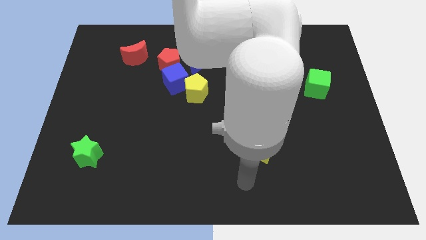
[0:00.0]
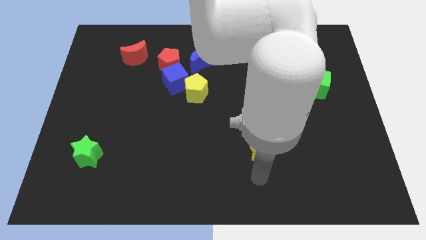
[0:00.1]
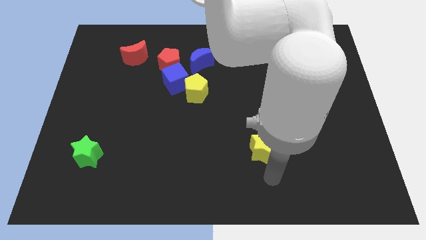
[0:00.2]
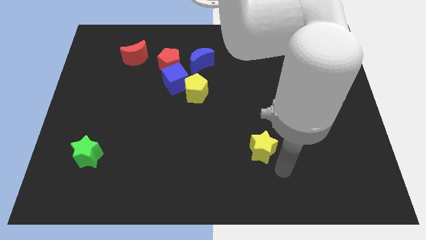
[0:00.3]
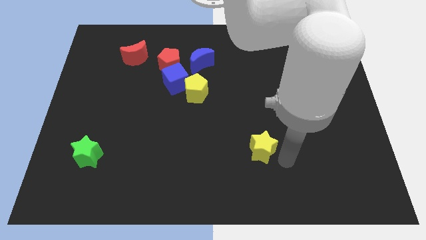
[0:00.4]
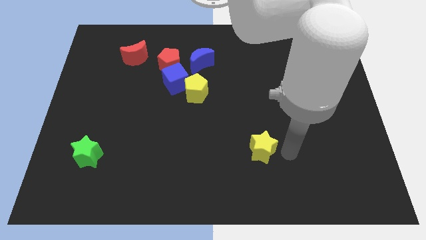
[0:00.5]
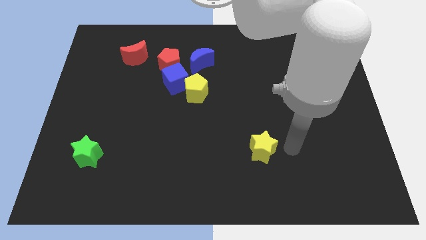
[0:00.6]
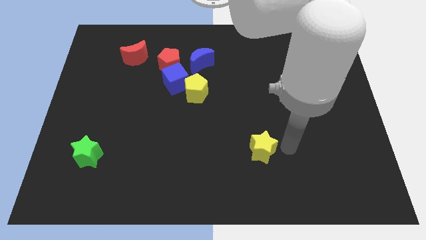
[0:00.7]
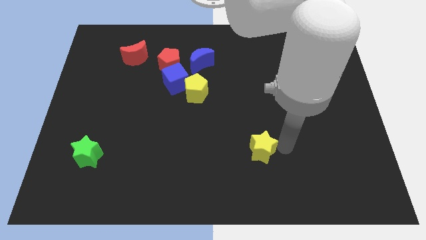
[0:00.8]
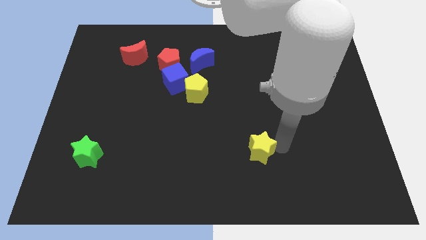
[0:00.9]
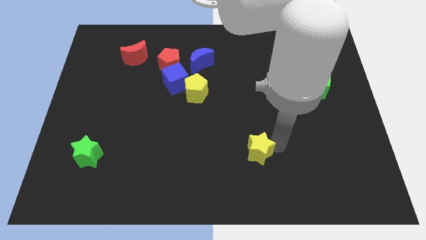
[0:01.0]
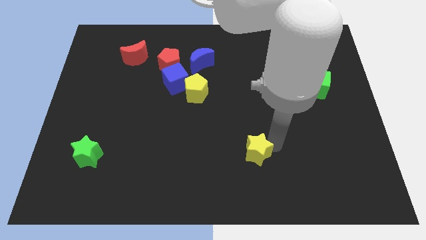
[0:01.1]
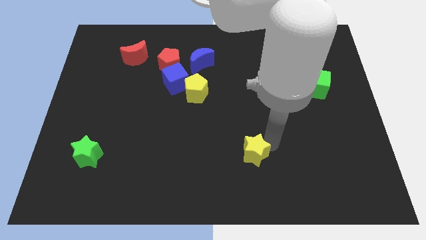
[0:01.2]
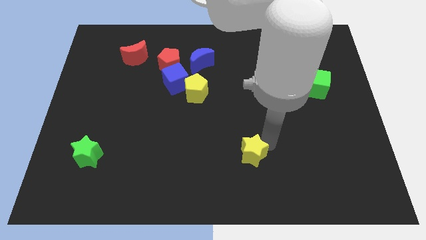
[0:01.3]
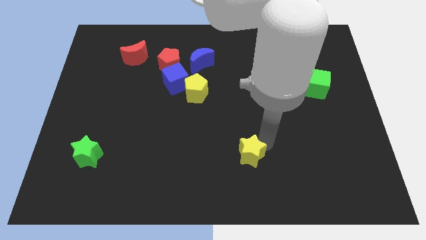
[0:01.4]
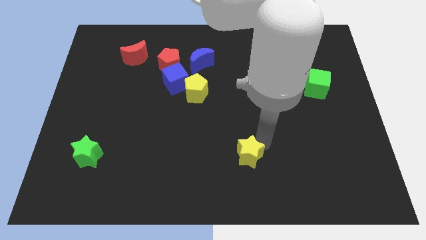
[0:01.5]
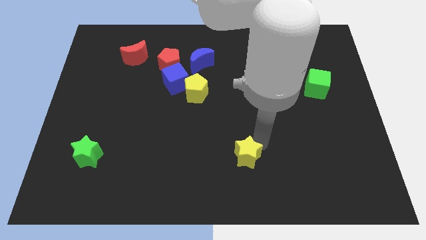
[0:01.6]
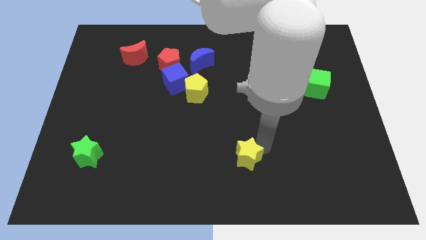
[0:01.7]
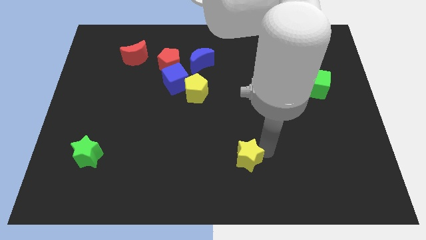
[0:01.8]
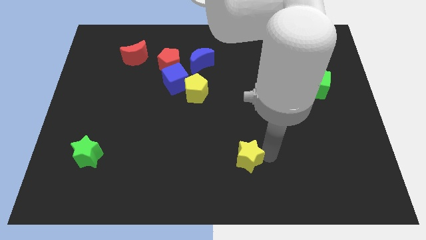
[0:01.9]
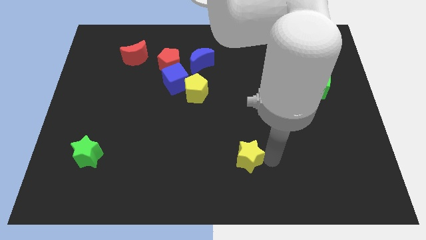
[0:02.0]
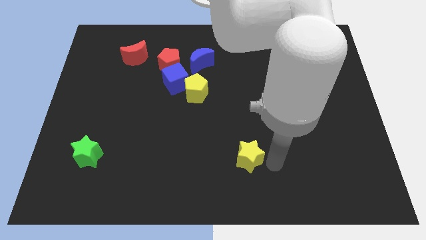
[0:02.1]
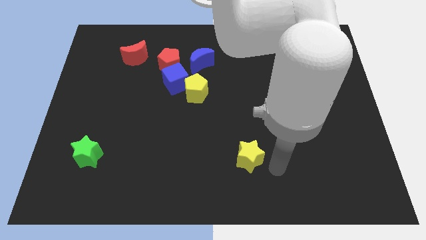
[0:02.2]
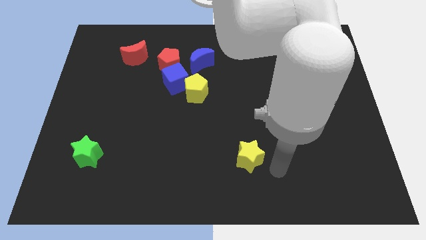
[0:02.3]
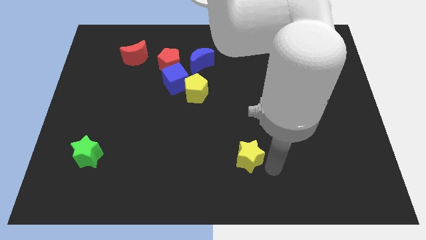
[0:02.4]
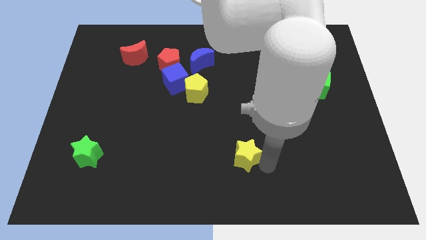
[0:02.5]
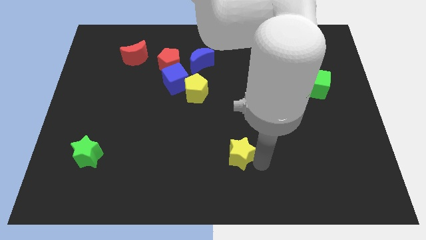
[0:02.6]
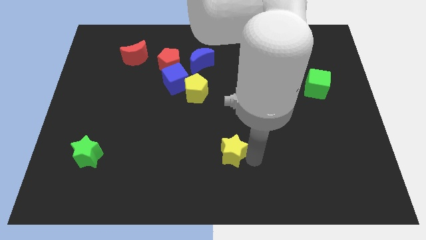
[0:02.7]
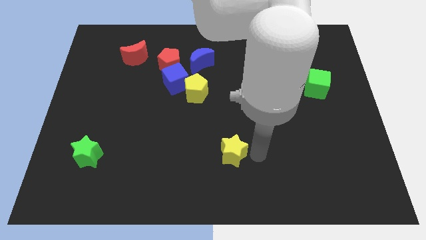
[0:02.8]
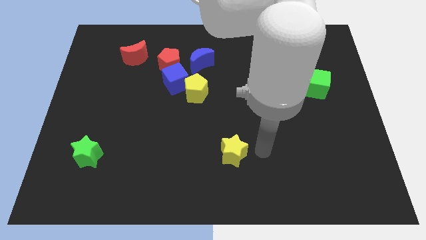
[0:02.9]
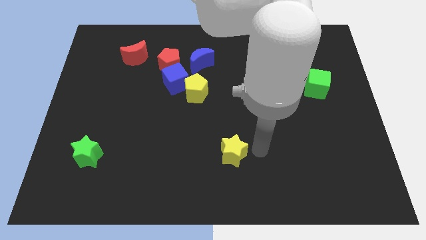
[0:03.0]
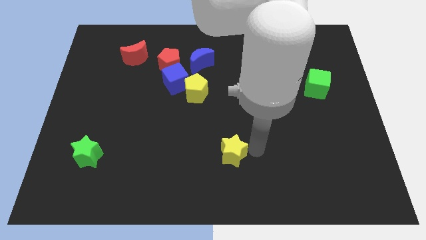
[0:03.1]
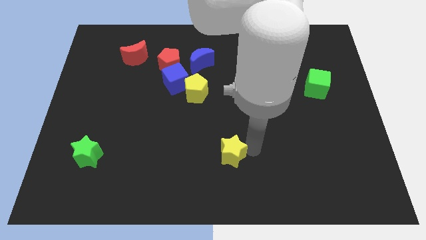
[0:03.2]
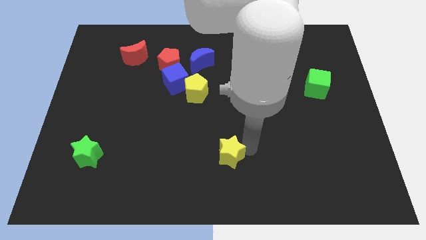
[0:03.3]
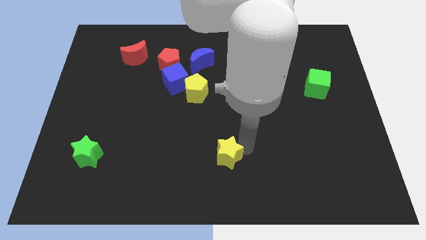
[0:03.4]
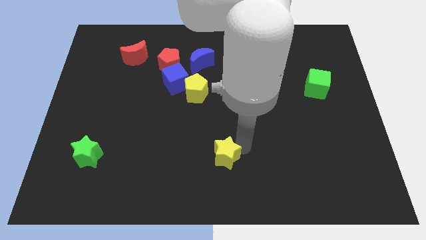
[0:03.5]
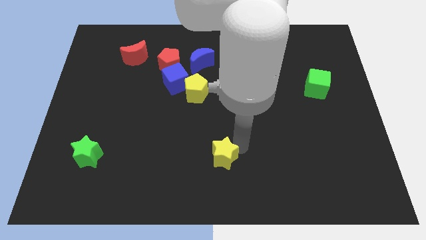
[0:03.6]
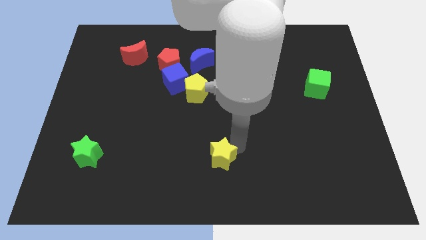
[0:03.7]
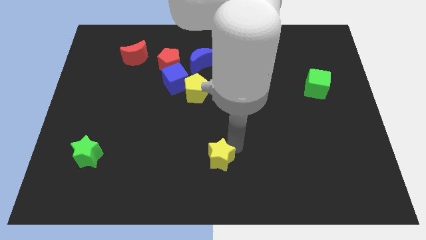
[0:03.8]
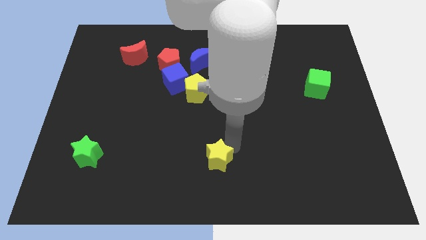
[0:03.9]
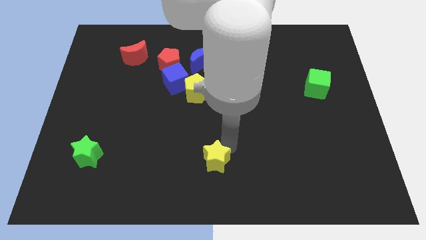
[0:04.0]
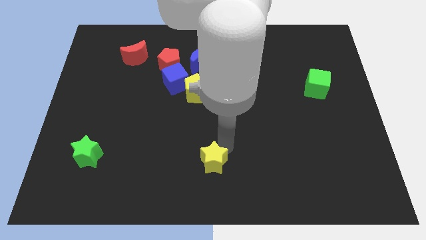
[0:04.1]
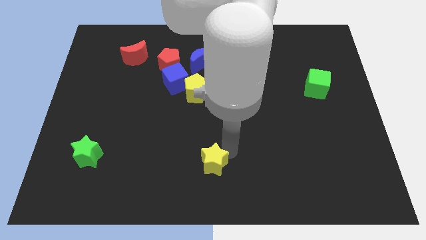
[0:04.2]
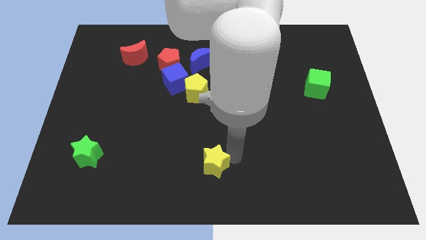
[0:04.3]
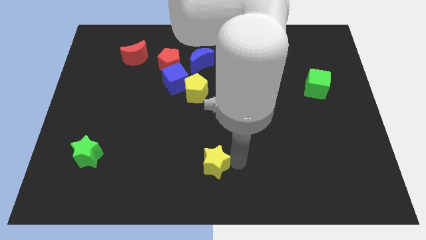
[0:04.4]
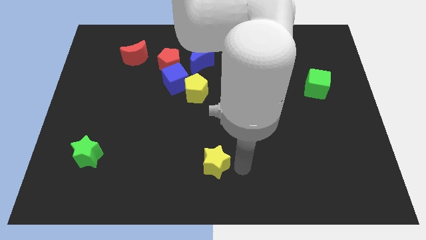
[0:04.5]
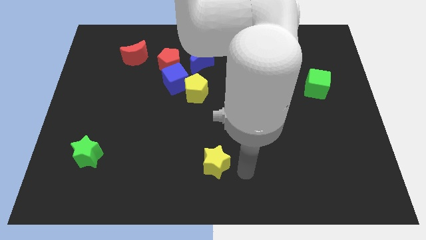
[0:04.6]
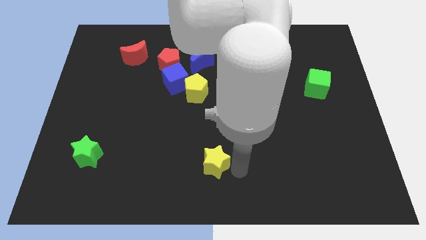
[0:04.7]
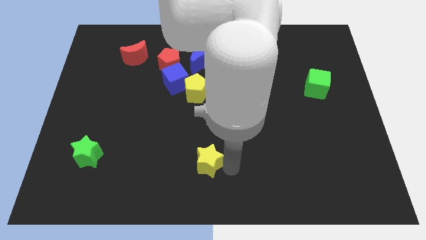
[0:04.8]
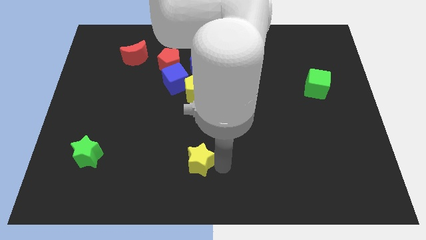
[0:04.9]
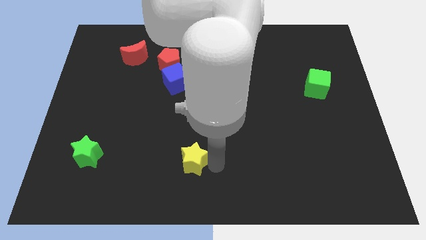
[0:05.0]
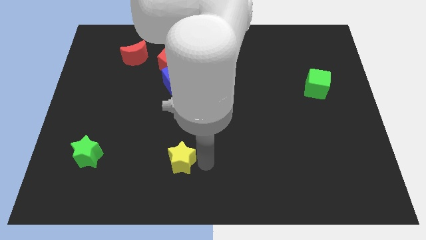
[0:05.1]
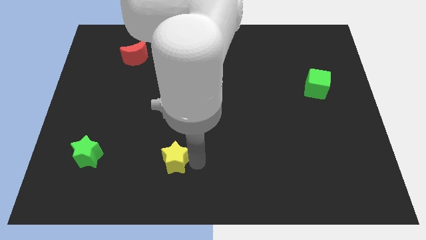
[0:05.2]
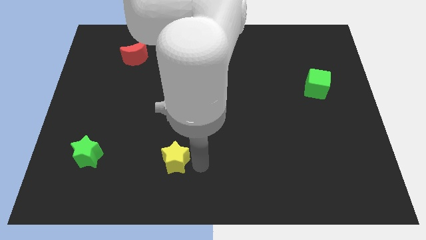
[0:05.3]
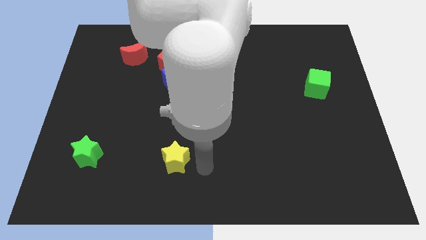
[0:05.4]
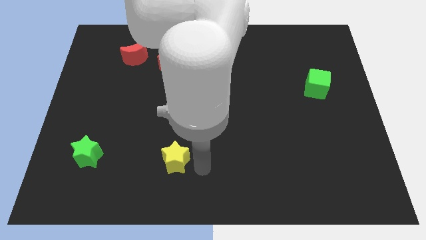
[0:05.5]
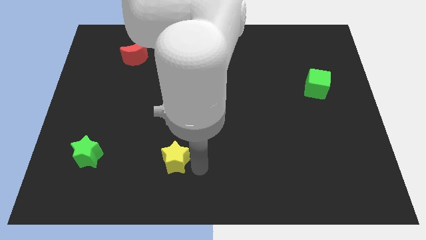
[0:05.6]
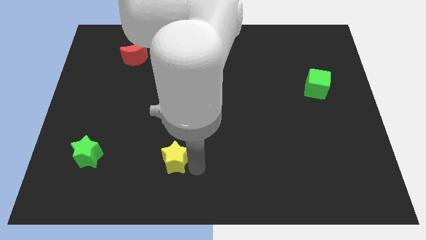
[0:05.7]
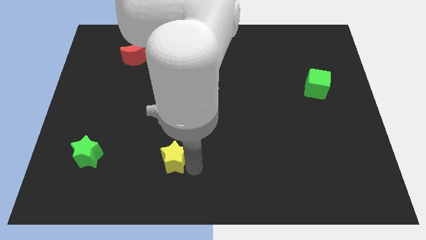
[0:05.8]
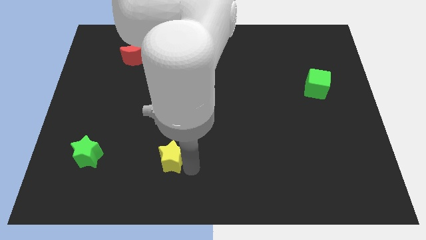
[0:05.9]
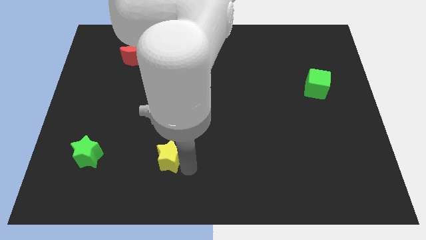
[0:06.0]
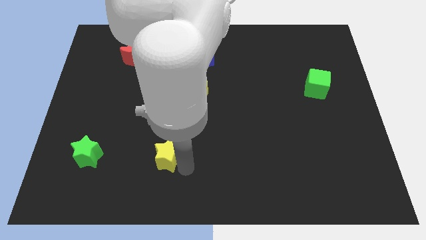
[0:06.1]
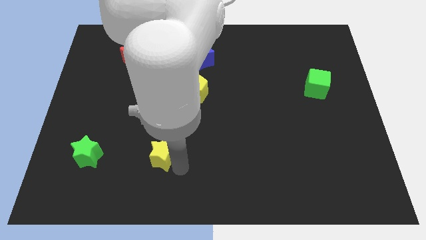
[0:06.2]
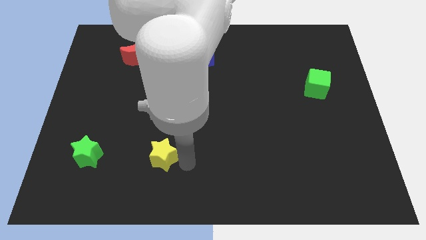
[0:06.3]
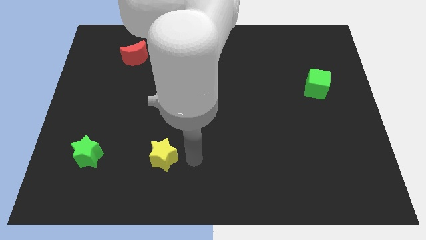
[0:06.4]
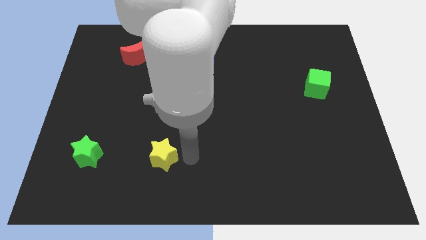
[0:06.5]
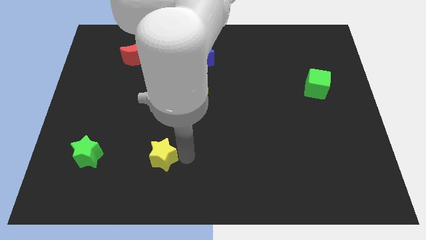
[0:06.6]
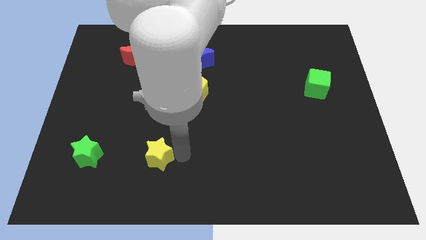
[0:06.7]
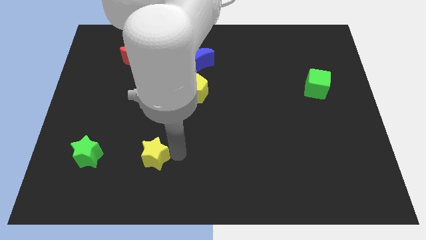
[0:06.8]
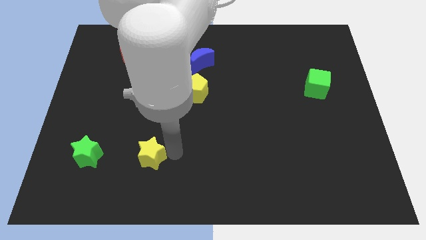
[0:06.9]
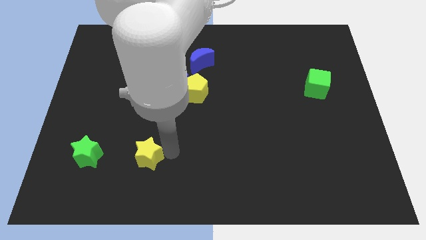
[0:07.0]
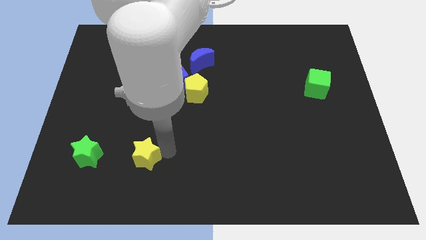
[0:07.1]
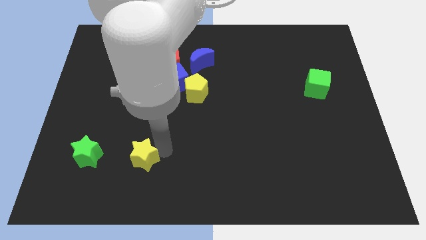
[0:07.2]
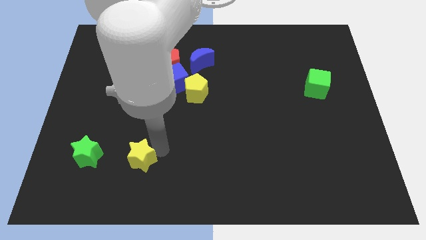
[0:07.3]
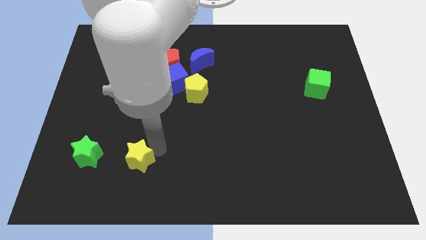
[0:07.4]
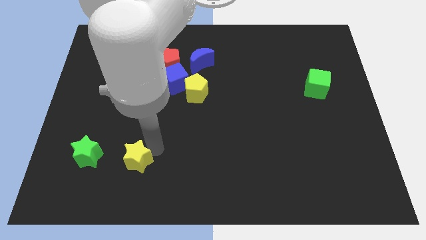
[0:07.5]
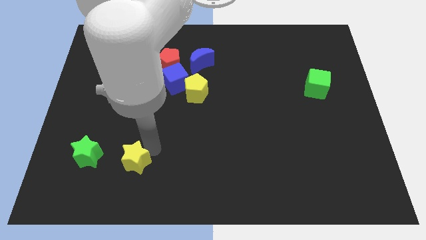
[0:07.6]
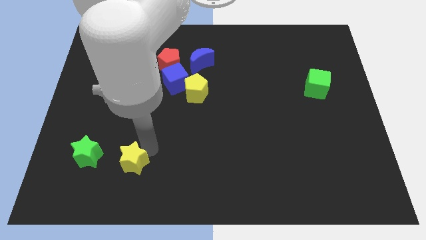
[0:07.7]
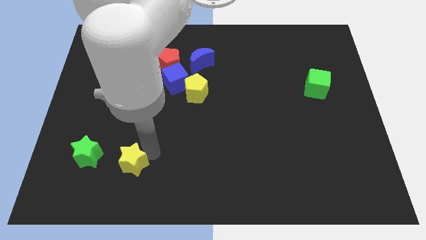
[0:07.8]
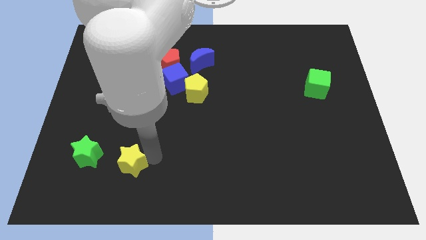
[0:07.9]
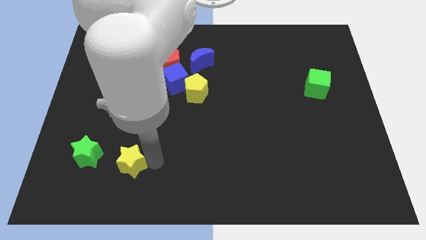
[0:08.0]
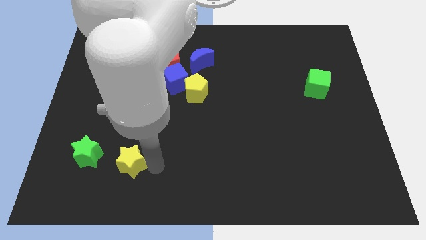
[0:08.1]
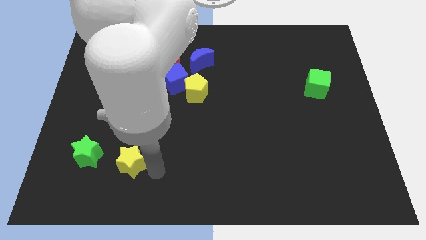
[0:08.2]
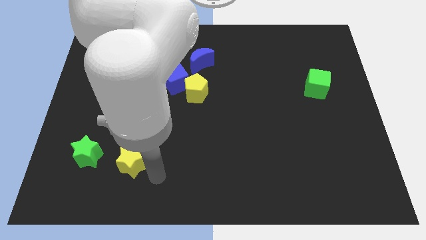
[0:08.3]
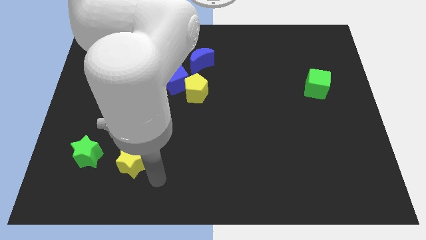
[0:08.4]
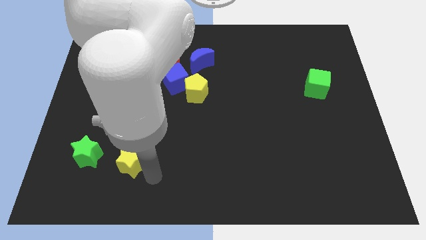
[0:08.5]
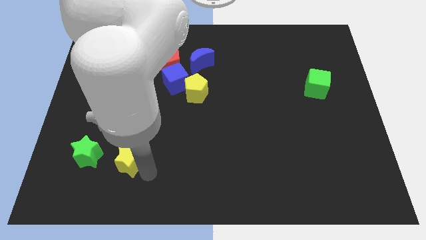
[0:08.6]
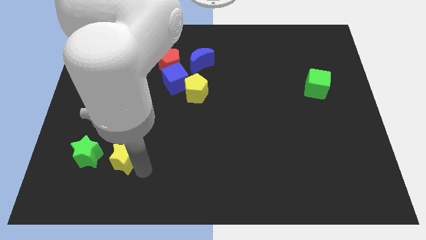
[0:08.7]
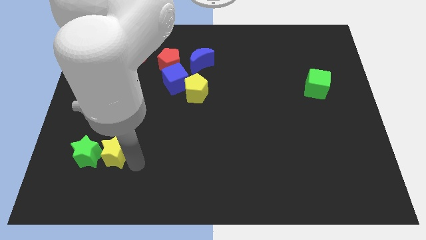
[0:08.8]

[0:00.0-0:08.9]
slide the yellow star to the green star
